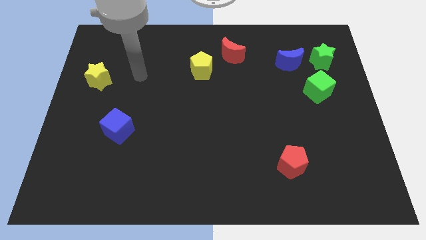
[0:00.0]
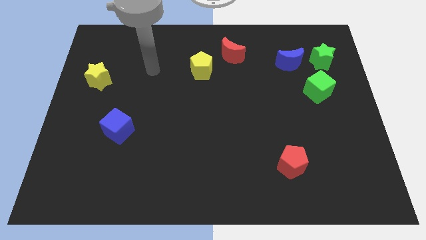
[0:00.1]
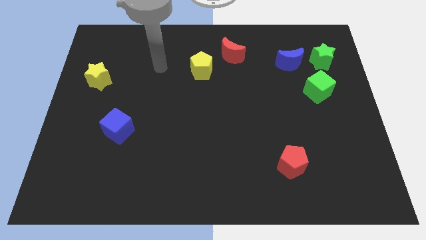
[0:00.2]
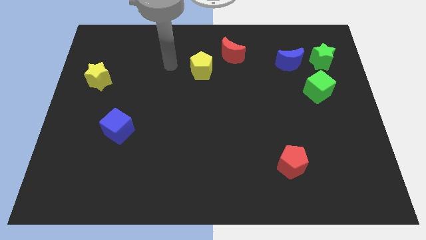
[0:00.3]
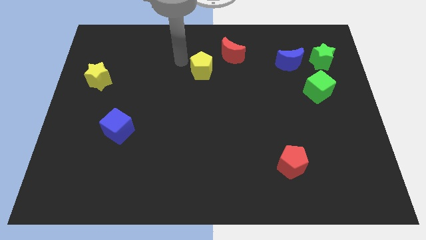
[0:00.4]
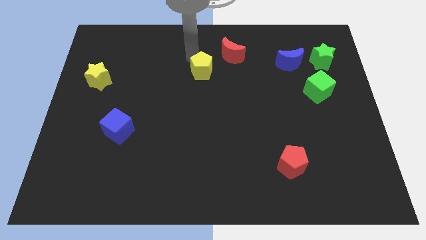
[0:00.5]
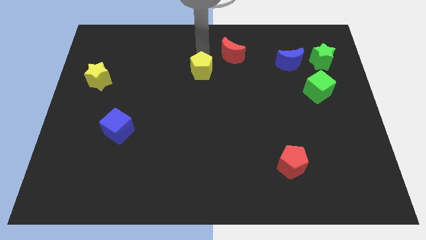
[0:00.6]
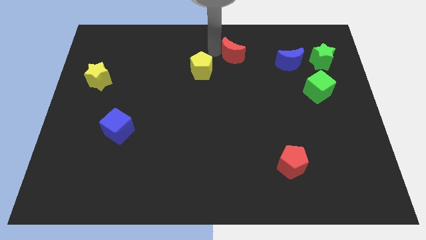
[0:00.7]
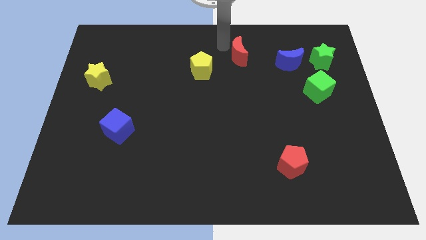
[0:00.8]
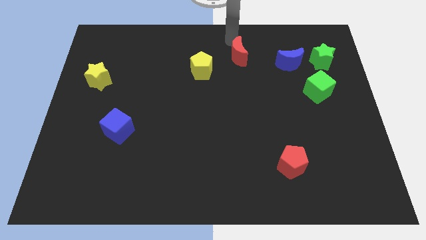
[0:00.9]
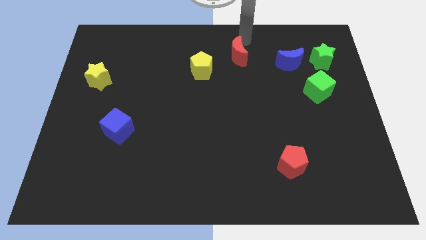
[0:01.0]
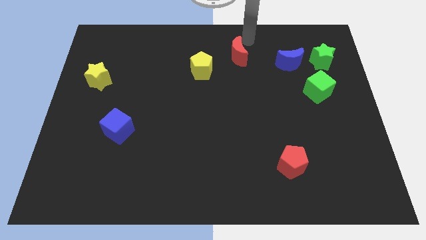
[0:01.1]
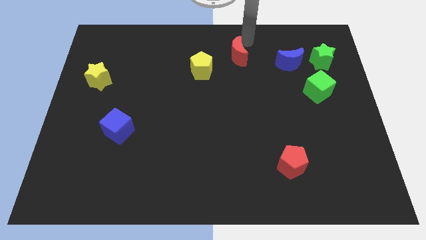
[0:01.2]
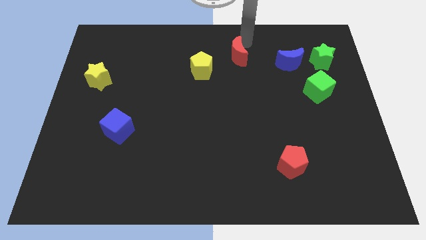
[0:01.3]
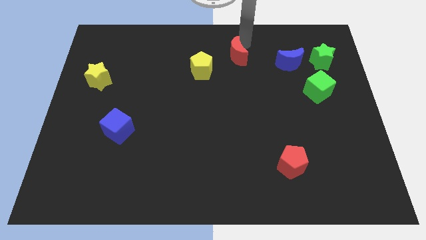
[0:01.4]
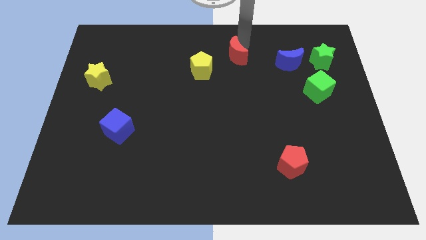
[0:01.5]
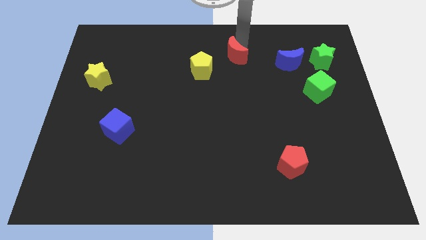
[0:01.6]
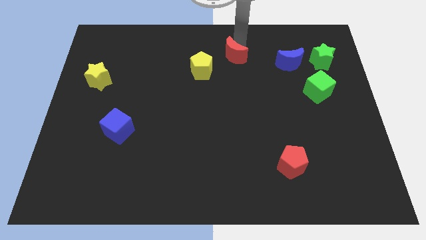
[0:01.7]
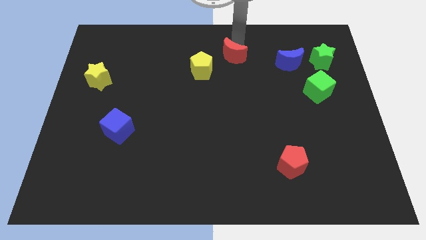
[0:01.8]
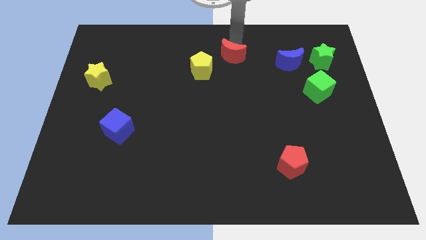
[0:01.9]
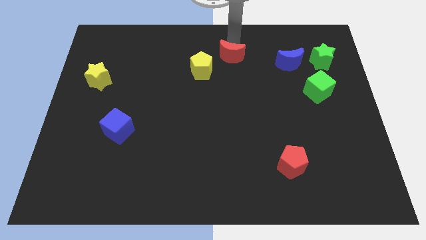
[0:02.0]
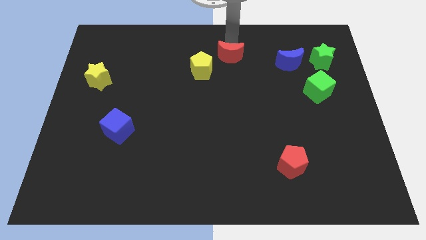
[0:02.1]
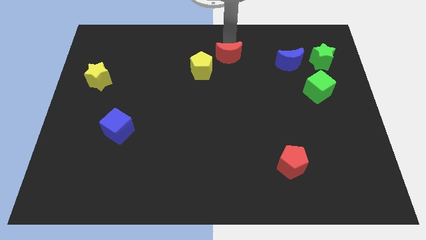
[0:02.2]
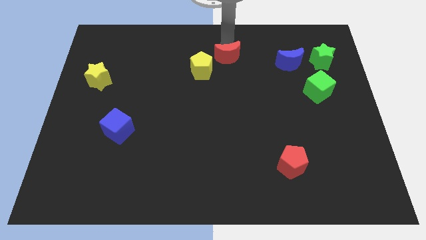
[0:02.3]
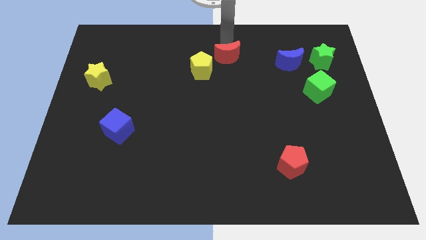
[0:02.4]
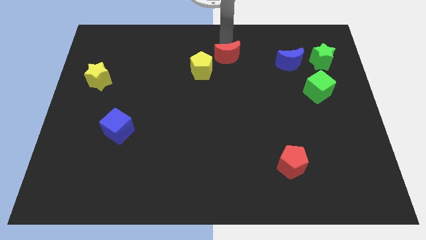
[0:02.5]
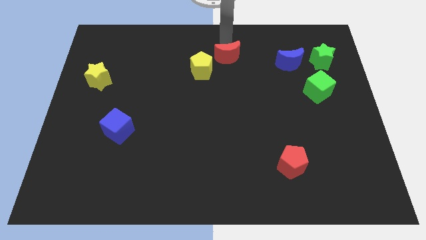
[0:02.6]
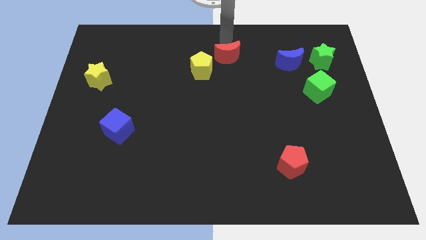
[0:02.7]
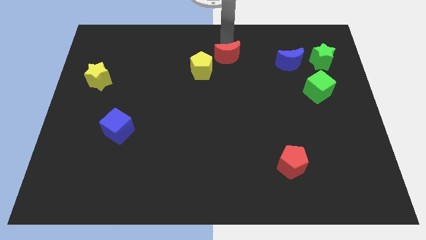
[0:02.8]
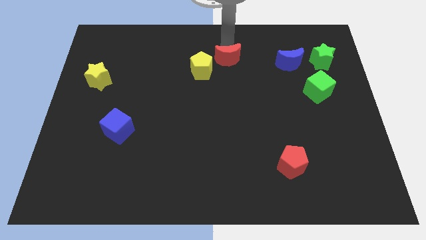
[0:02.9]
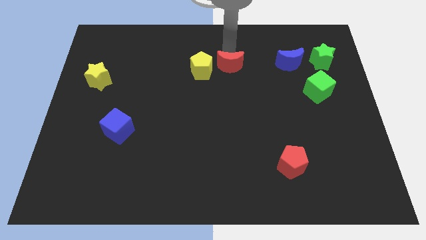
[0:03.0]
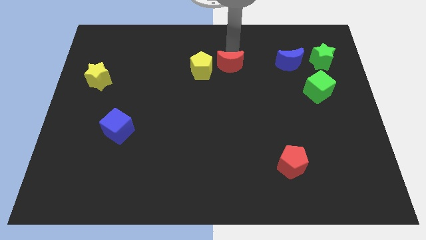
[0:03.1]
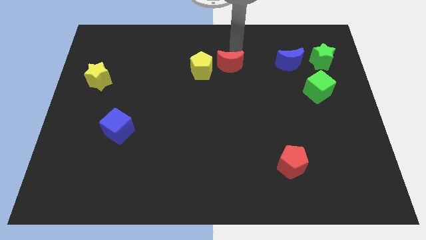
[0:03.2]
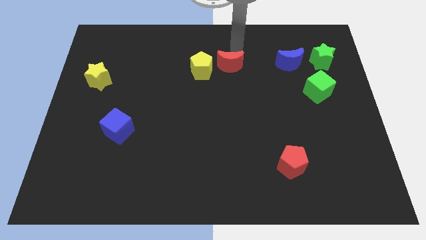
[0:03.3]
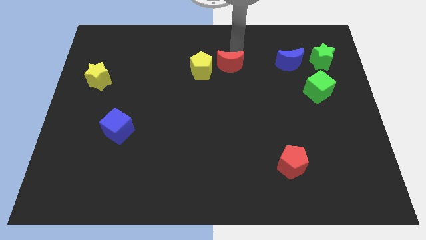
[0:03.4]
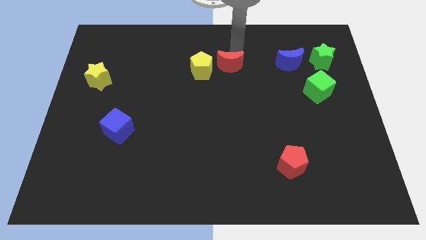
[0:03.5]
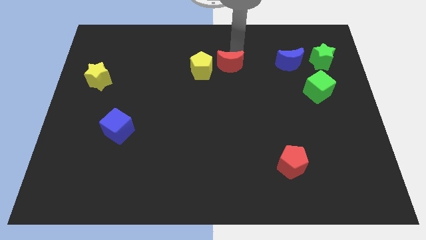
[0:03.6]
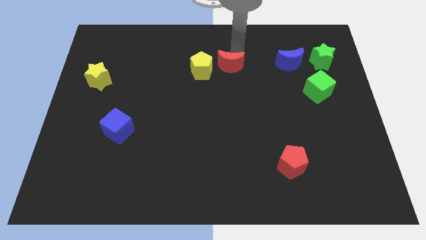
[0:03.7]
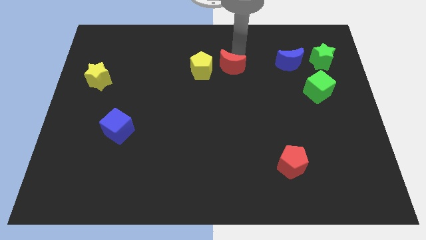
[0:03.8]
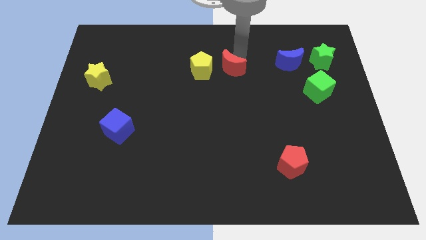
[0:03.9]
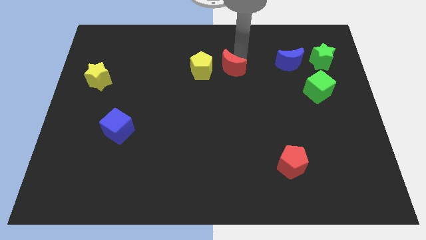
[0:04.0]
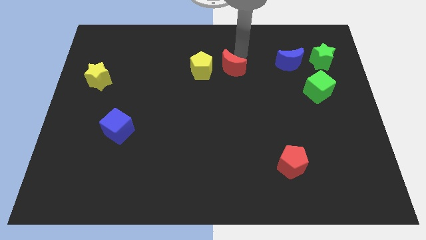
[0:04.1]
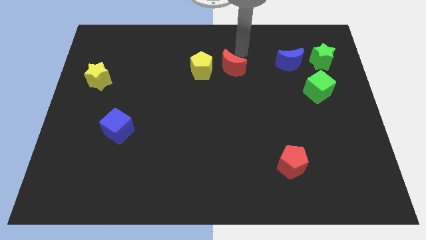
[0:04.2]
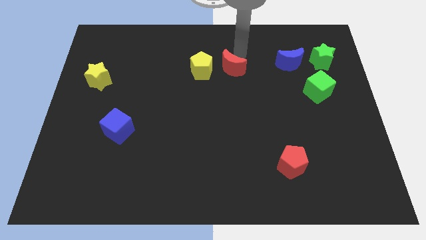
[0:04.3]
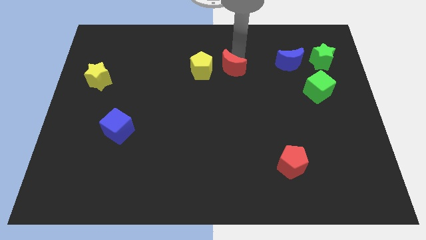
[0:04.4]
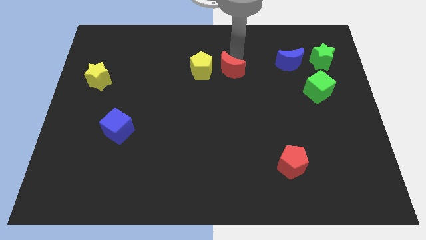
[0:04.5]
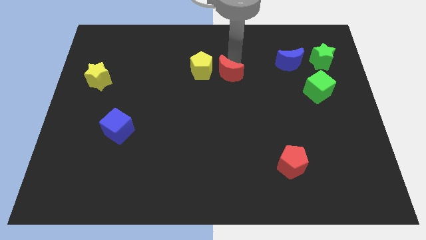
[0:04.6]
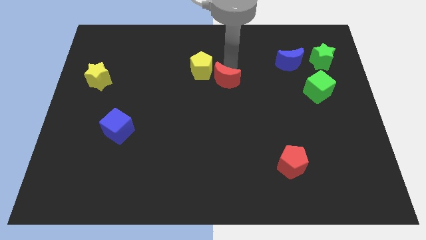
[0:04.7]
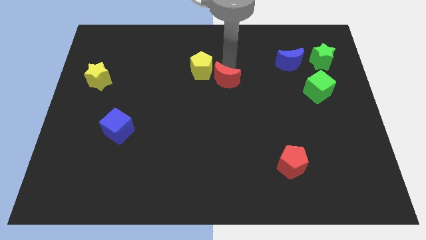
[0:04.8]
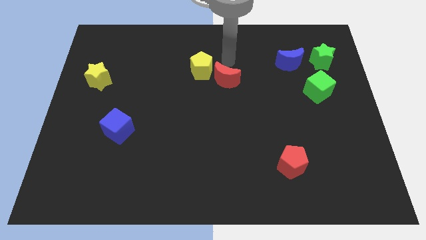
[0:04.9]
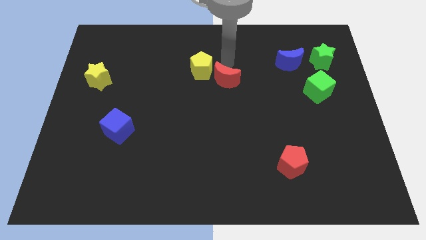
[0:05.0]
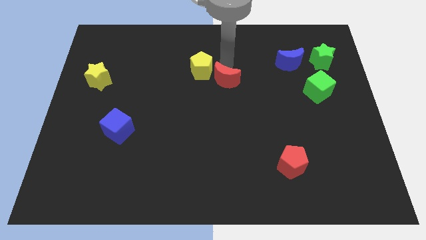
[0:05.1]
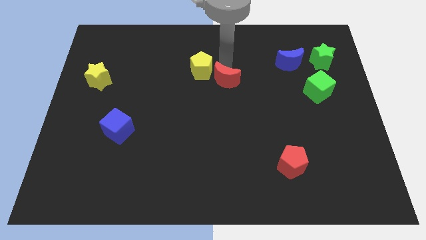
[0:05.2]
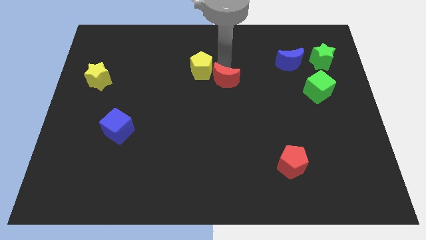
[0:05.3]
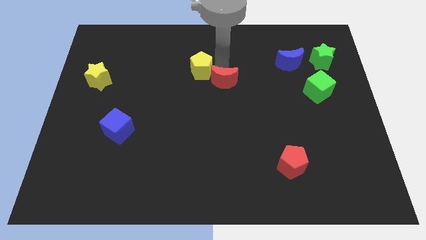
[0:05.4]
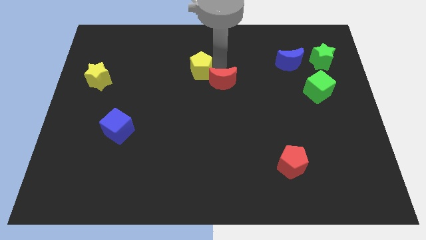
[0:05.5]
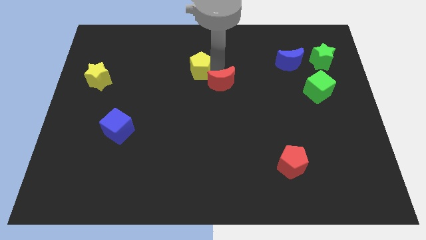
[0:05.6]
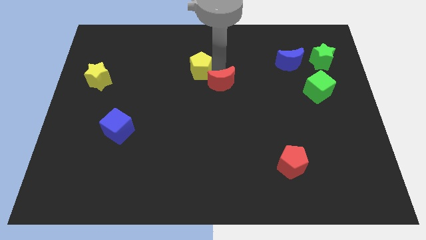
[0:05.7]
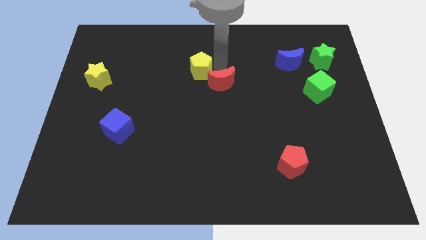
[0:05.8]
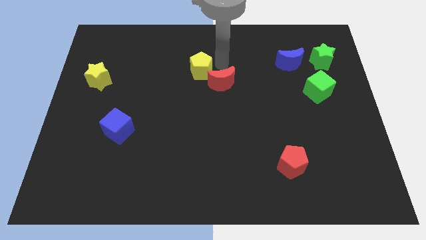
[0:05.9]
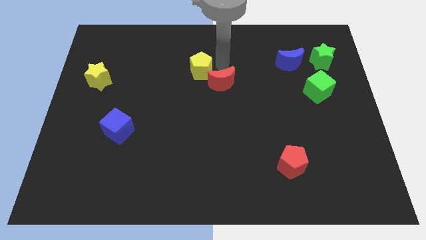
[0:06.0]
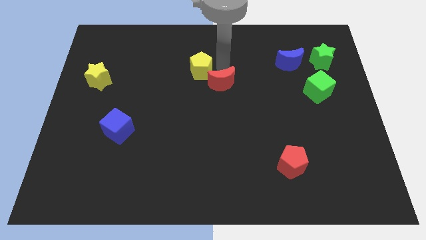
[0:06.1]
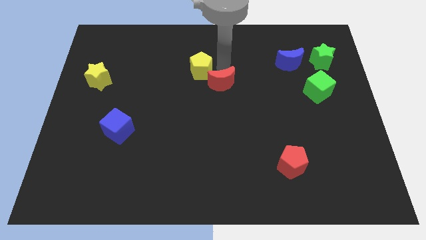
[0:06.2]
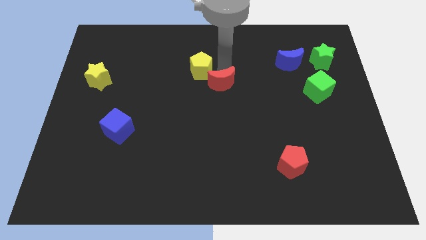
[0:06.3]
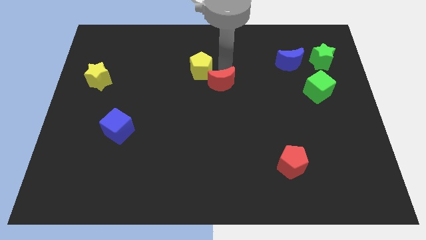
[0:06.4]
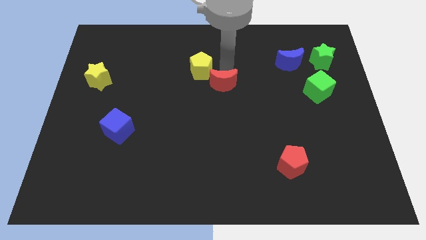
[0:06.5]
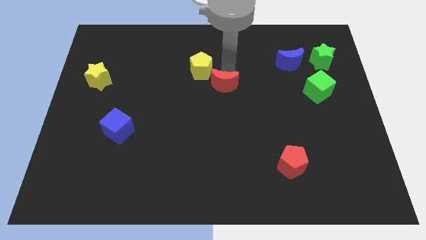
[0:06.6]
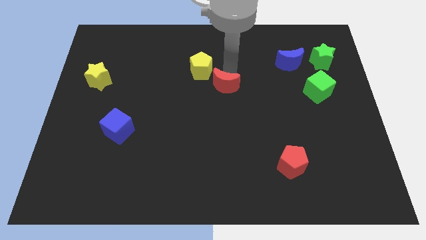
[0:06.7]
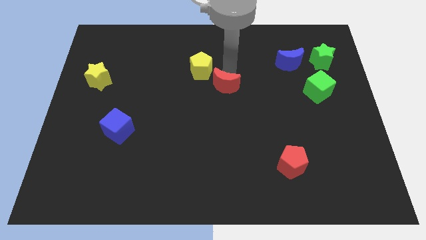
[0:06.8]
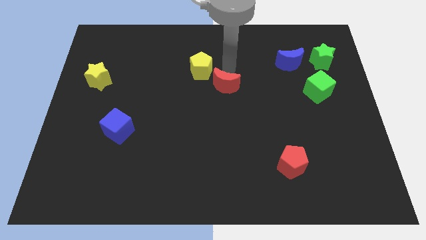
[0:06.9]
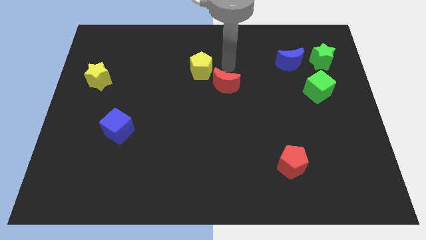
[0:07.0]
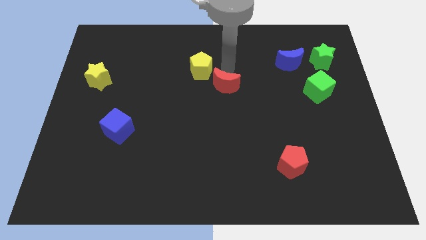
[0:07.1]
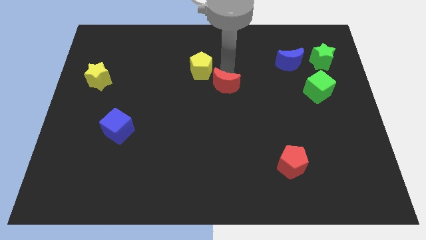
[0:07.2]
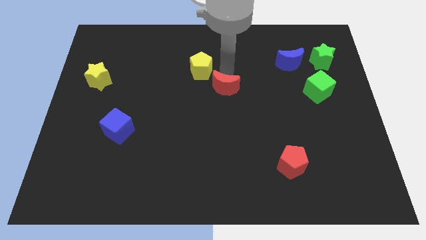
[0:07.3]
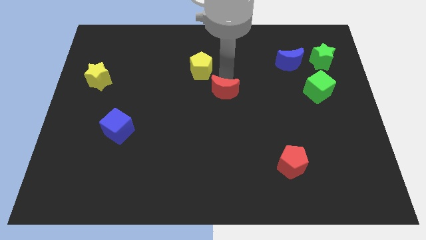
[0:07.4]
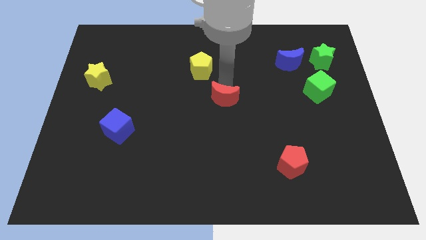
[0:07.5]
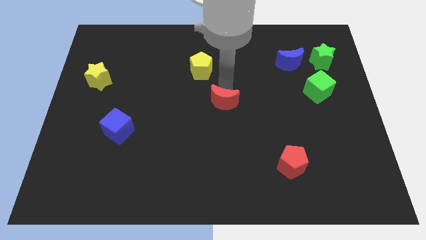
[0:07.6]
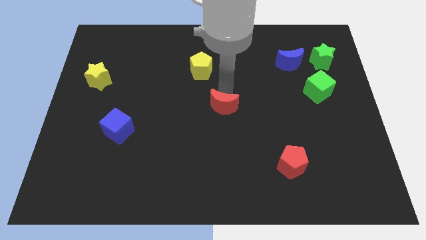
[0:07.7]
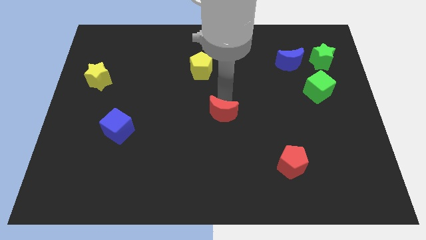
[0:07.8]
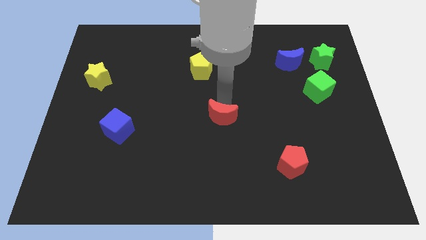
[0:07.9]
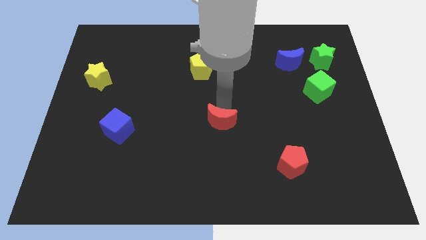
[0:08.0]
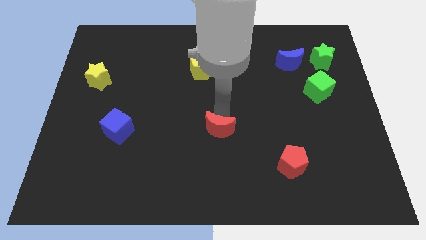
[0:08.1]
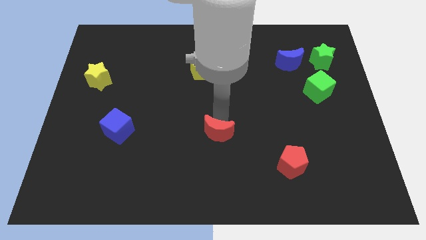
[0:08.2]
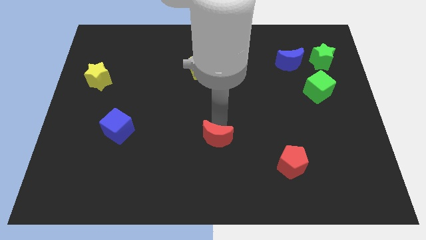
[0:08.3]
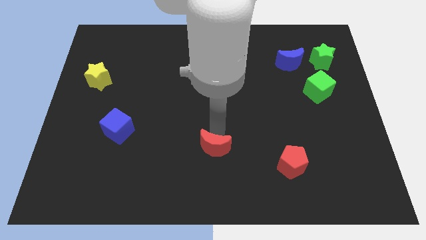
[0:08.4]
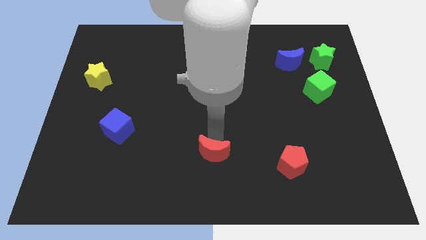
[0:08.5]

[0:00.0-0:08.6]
move the red moon to the bottom side
